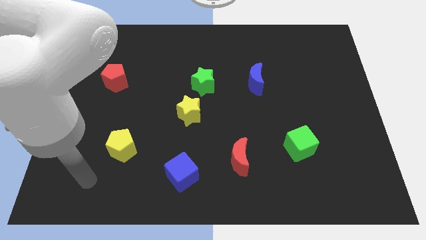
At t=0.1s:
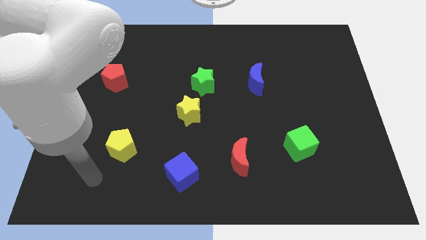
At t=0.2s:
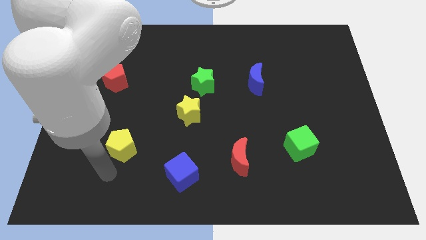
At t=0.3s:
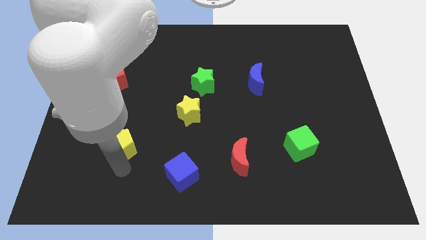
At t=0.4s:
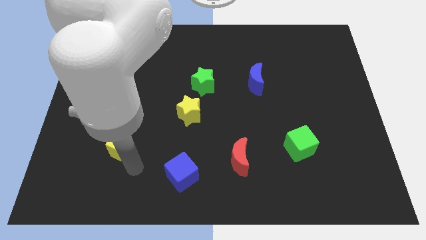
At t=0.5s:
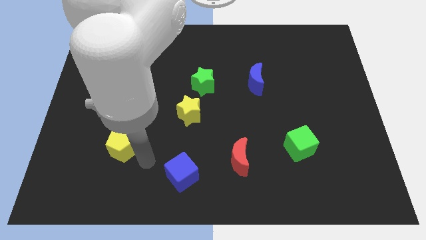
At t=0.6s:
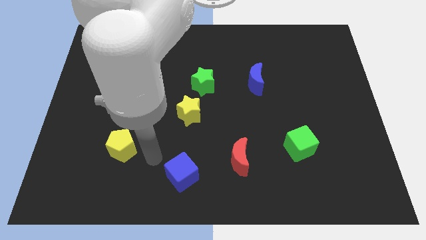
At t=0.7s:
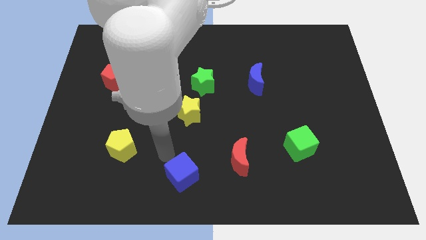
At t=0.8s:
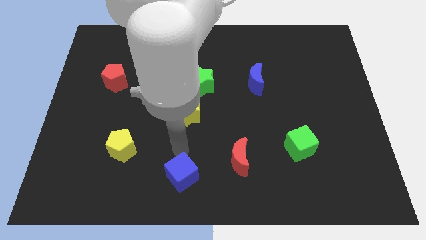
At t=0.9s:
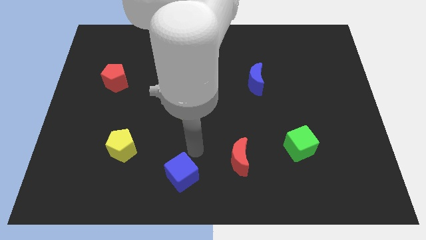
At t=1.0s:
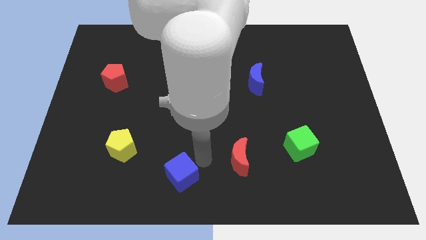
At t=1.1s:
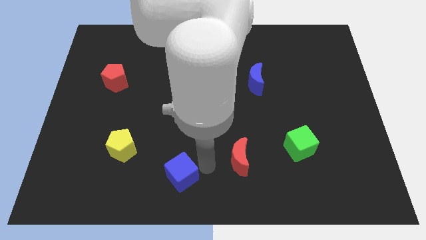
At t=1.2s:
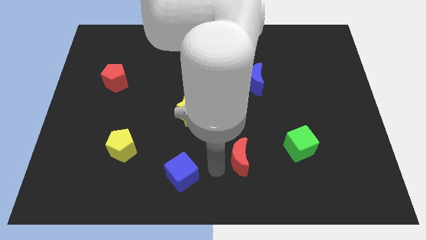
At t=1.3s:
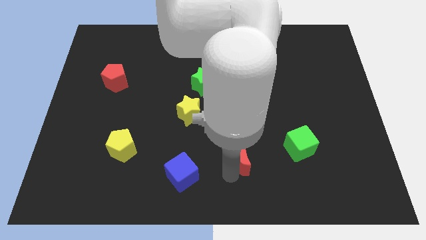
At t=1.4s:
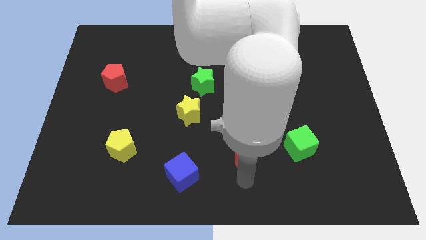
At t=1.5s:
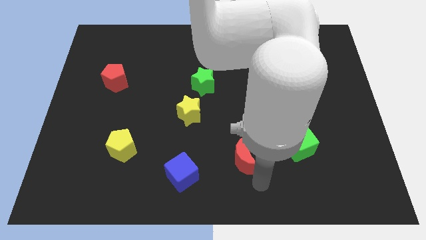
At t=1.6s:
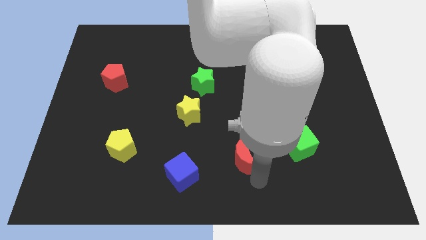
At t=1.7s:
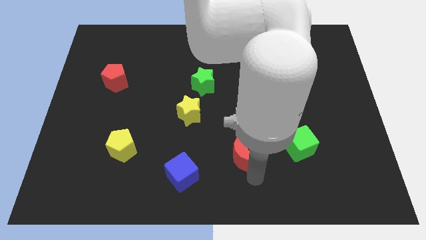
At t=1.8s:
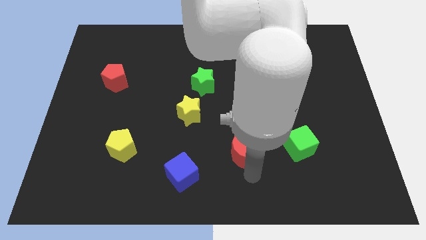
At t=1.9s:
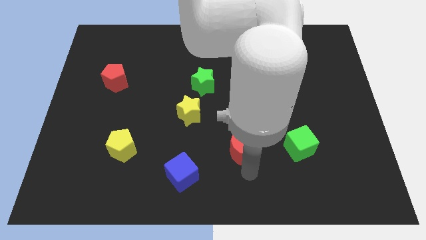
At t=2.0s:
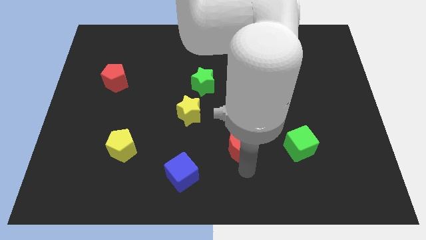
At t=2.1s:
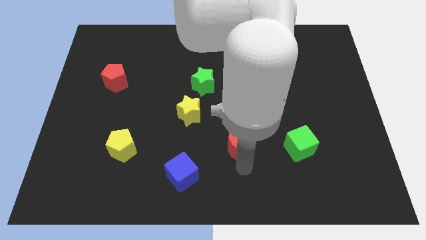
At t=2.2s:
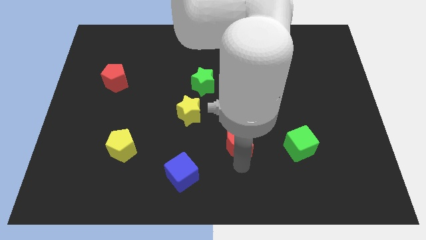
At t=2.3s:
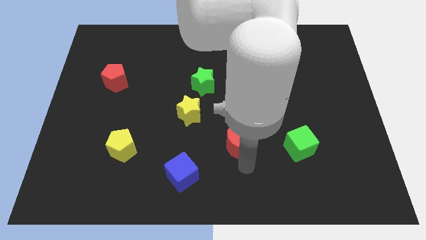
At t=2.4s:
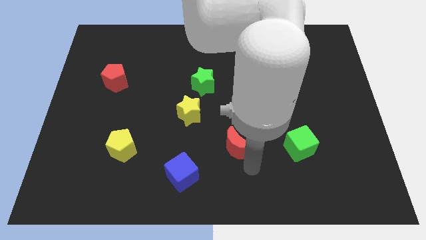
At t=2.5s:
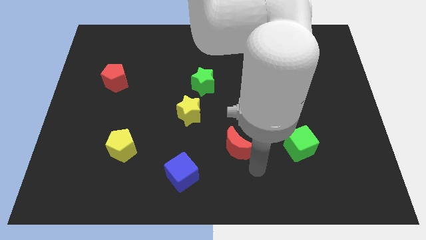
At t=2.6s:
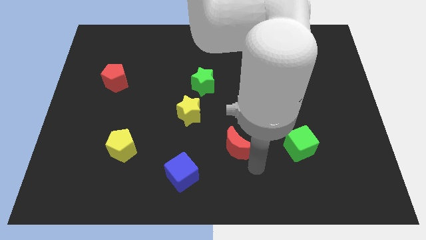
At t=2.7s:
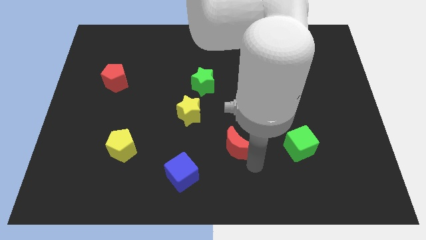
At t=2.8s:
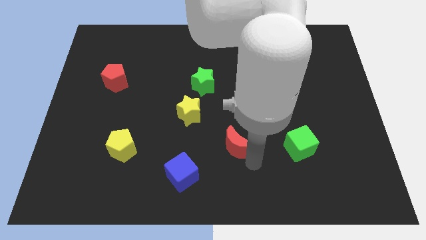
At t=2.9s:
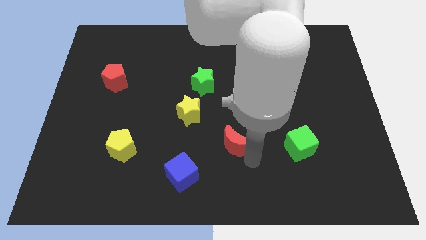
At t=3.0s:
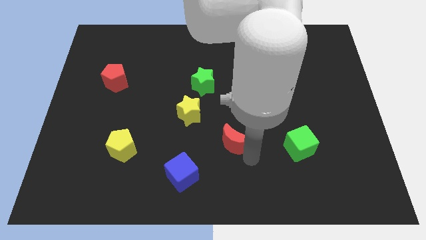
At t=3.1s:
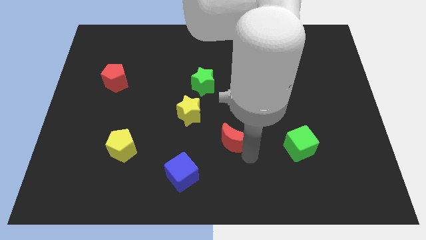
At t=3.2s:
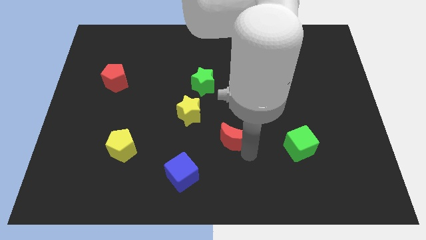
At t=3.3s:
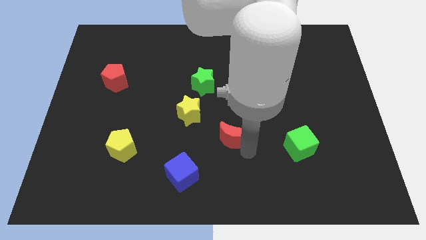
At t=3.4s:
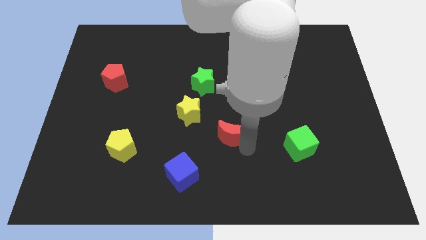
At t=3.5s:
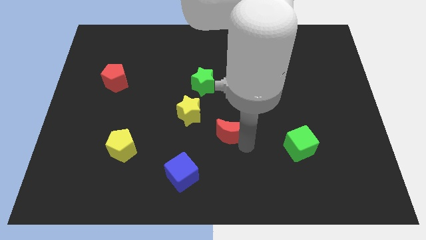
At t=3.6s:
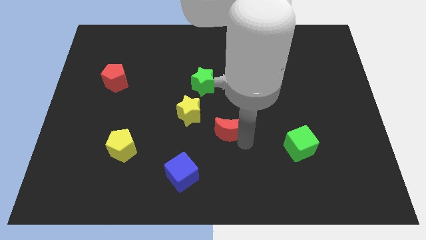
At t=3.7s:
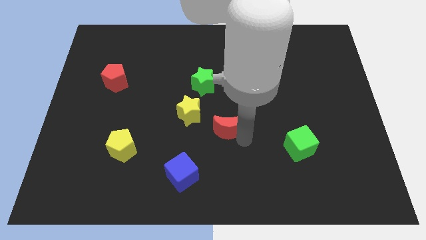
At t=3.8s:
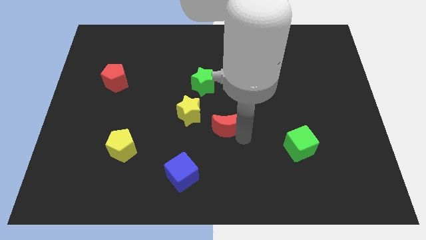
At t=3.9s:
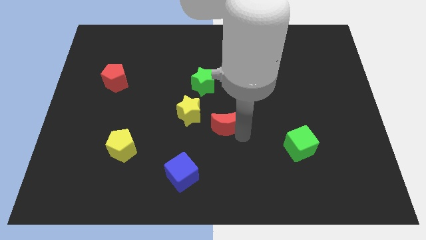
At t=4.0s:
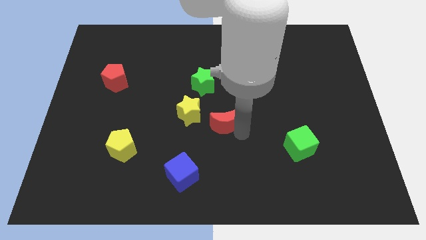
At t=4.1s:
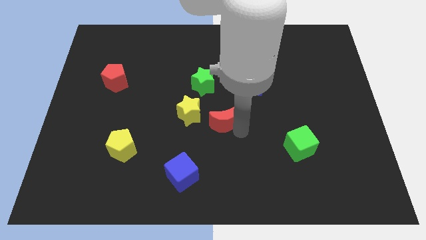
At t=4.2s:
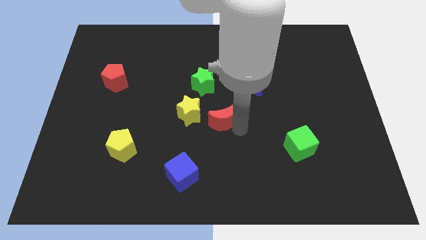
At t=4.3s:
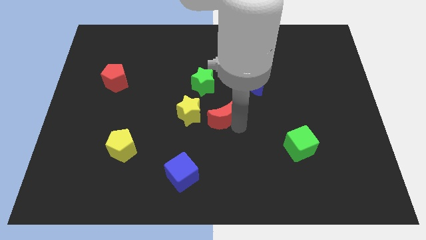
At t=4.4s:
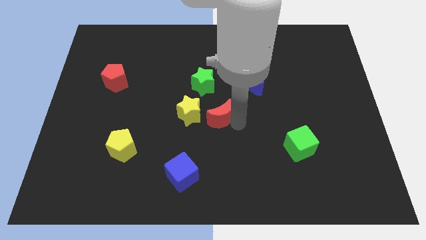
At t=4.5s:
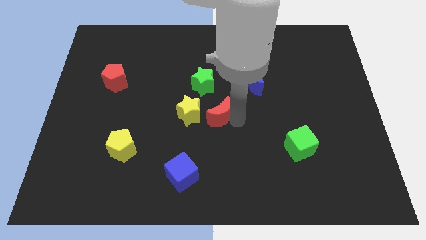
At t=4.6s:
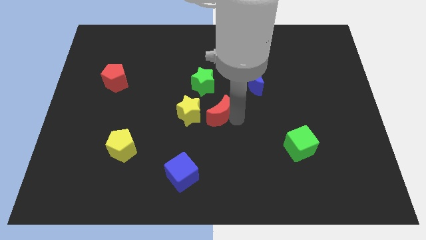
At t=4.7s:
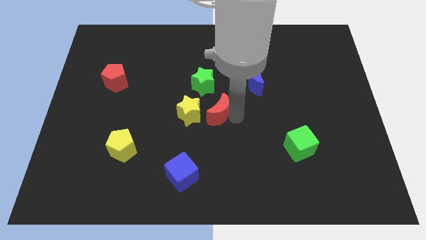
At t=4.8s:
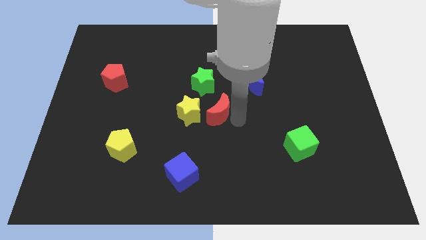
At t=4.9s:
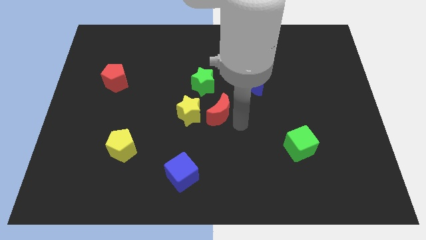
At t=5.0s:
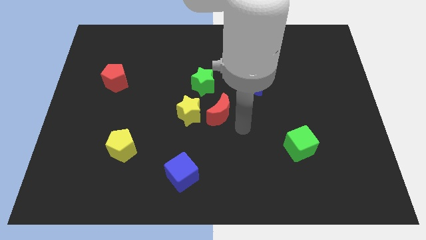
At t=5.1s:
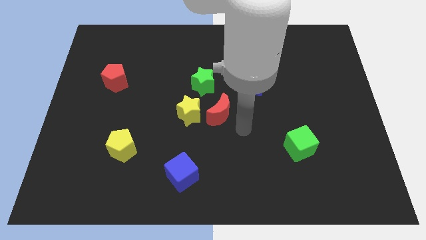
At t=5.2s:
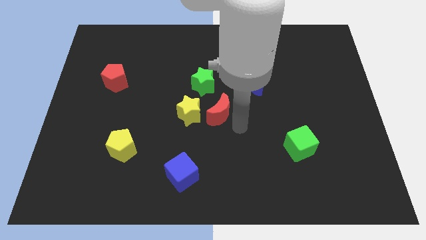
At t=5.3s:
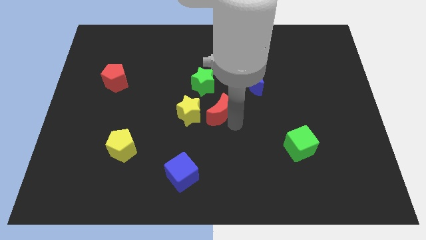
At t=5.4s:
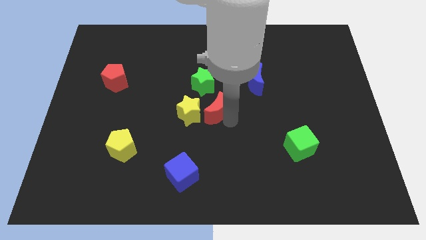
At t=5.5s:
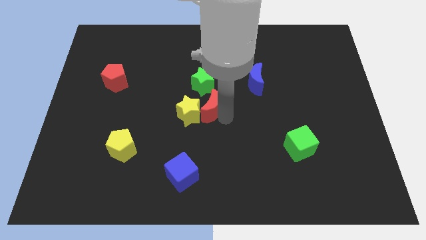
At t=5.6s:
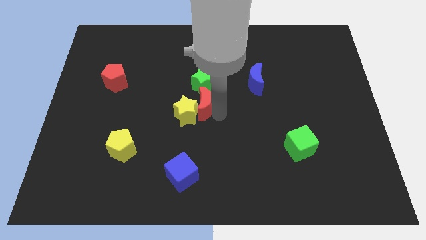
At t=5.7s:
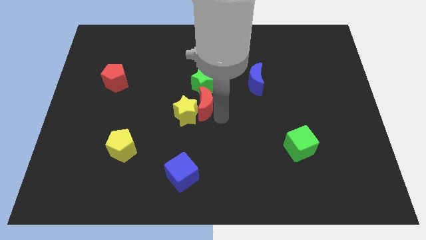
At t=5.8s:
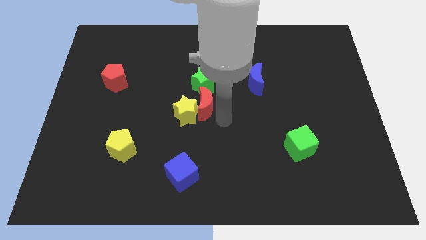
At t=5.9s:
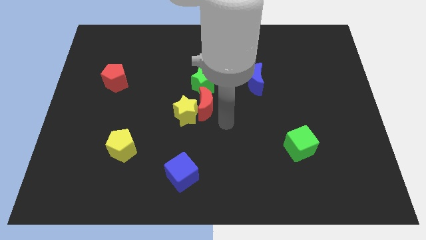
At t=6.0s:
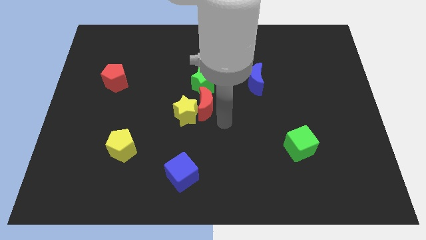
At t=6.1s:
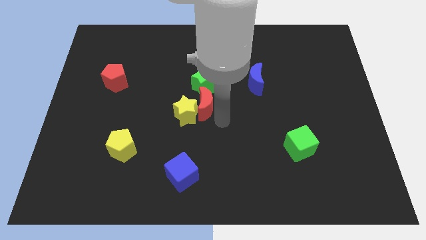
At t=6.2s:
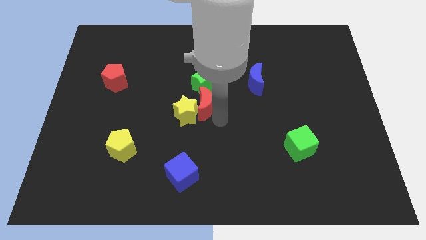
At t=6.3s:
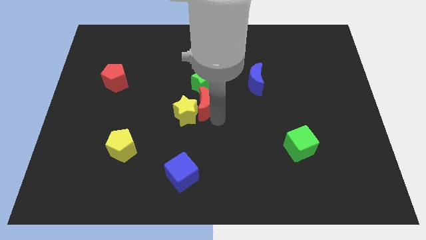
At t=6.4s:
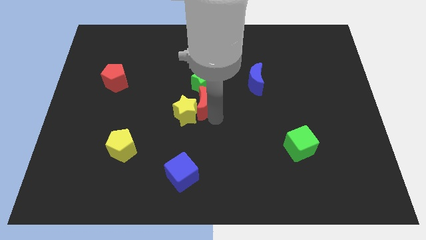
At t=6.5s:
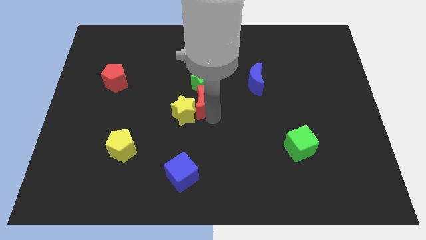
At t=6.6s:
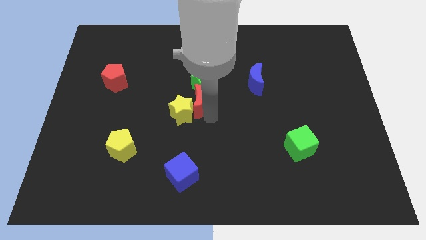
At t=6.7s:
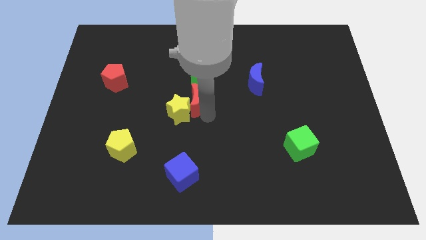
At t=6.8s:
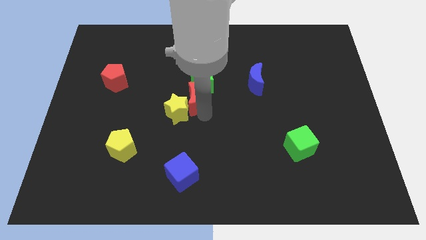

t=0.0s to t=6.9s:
move the red moon to the top of the yellow star
